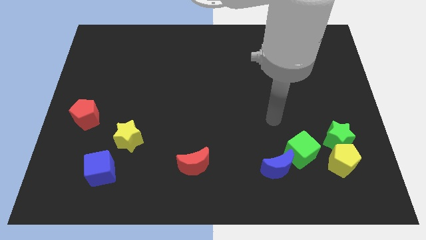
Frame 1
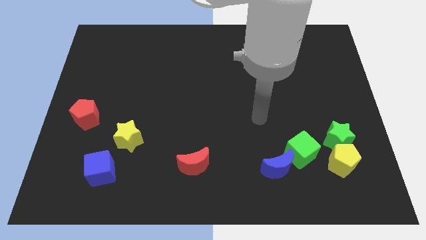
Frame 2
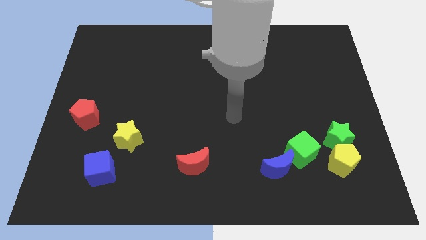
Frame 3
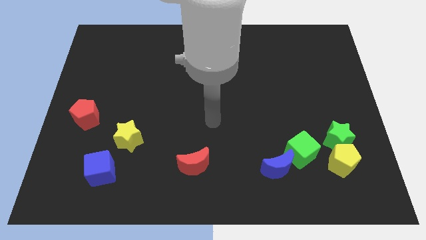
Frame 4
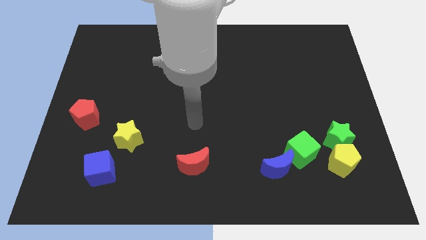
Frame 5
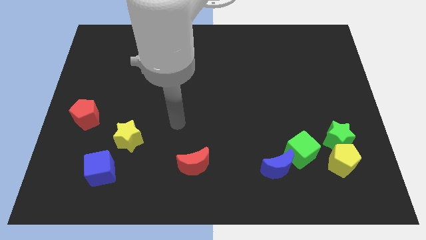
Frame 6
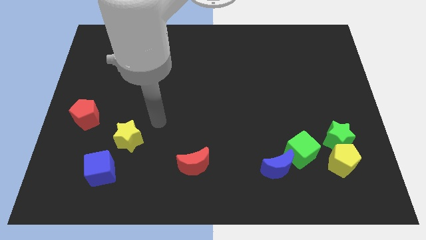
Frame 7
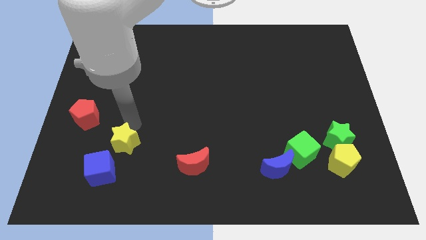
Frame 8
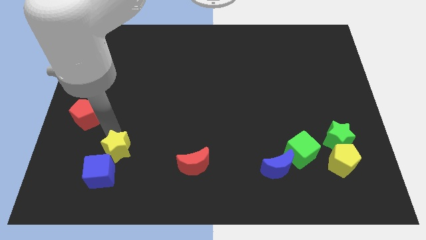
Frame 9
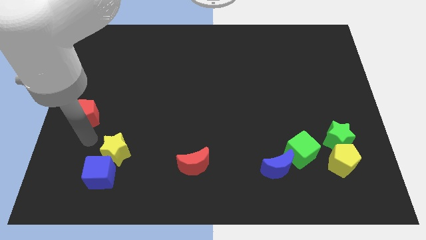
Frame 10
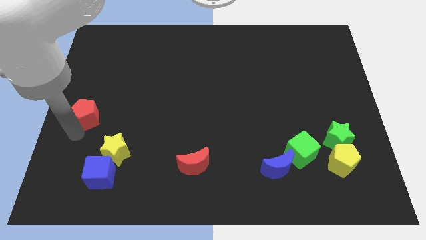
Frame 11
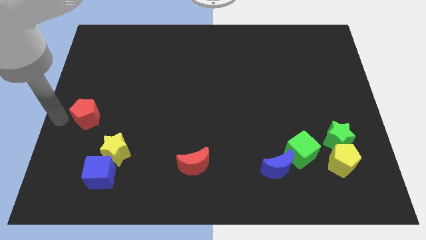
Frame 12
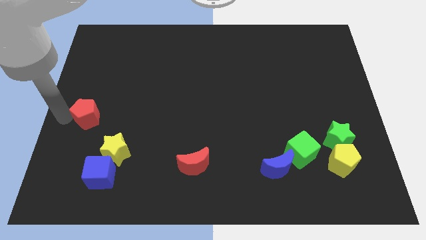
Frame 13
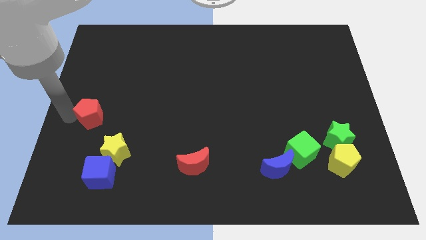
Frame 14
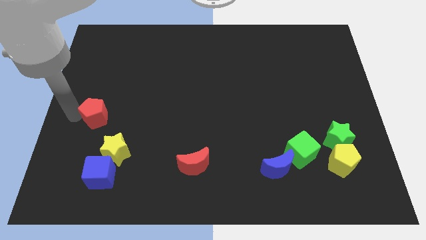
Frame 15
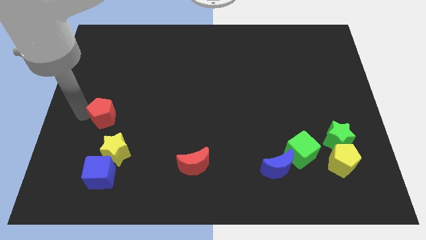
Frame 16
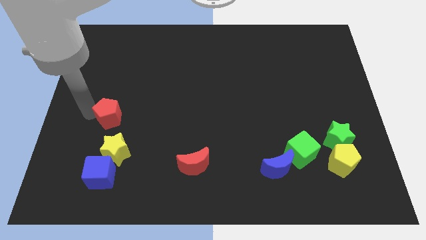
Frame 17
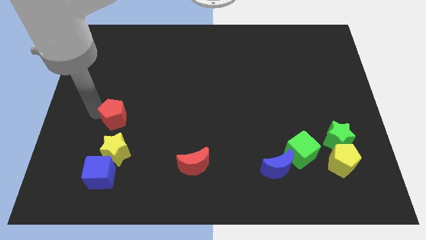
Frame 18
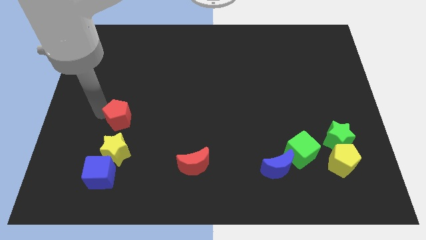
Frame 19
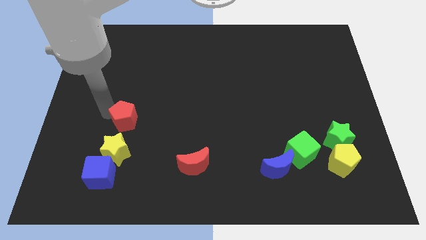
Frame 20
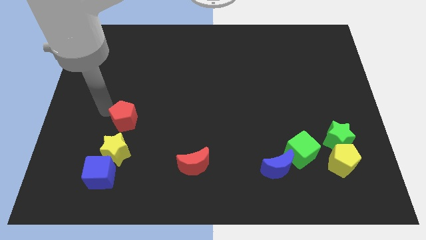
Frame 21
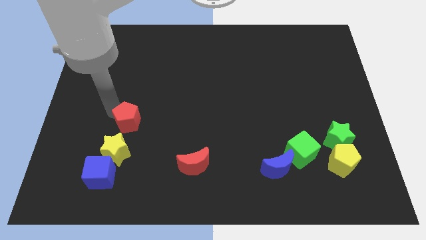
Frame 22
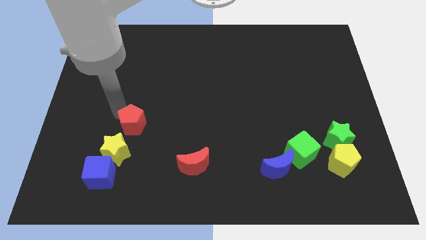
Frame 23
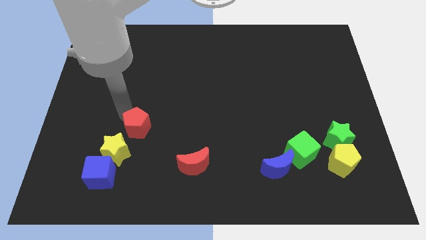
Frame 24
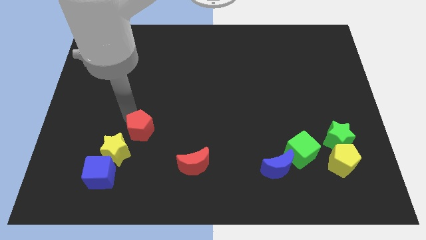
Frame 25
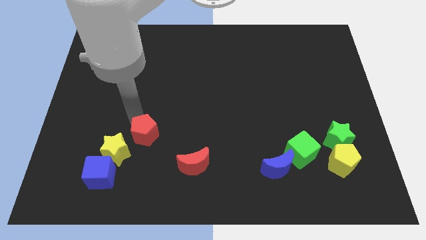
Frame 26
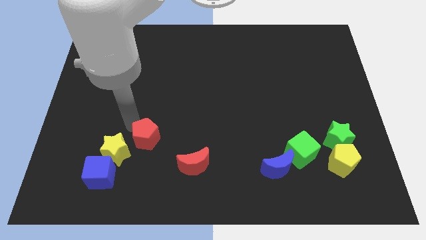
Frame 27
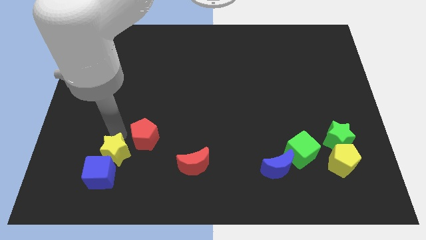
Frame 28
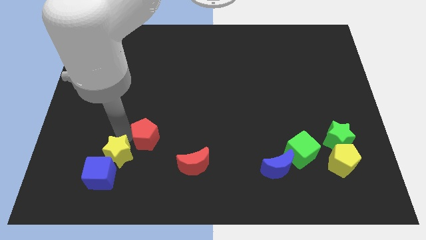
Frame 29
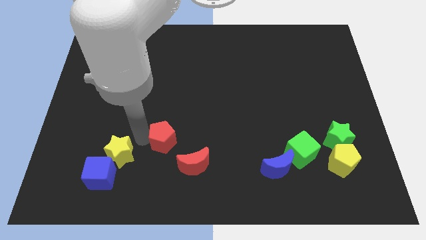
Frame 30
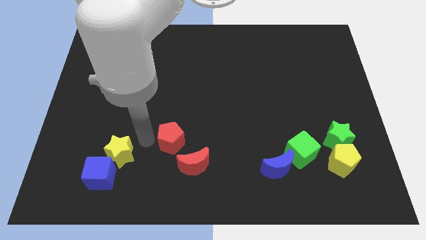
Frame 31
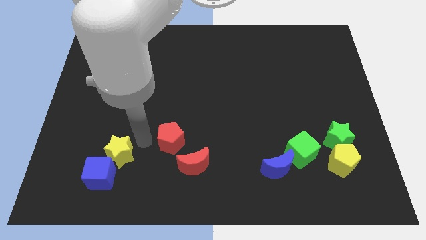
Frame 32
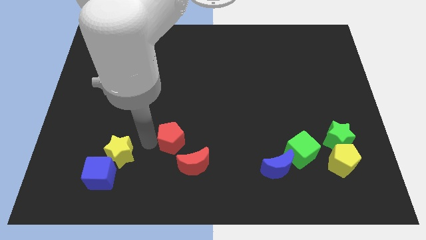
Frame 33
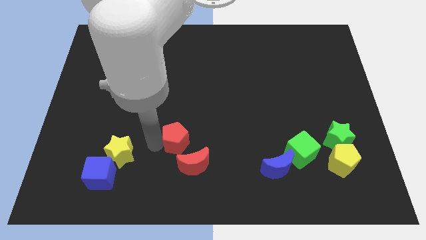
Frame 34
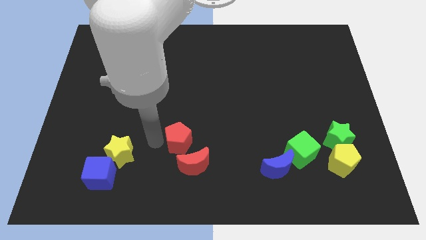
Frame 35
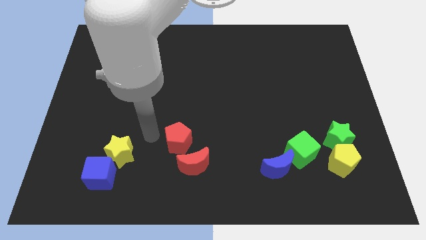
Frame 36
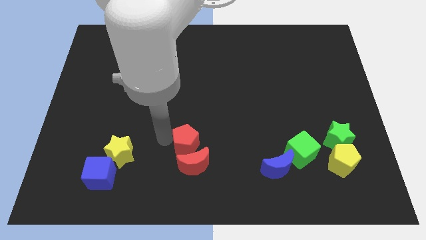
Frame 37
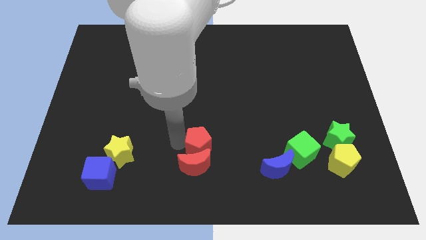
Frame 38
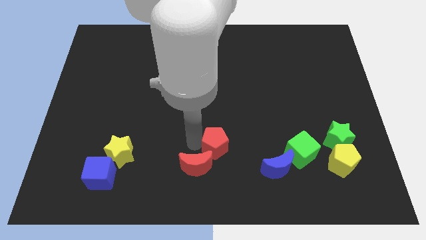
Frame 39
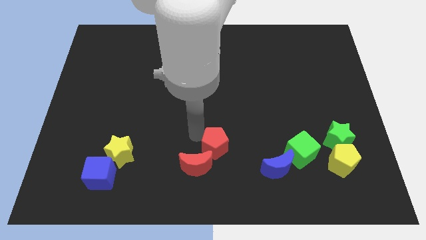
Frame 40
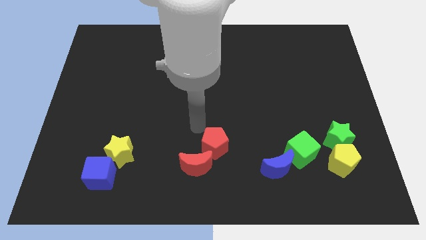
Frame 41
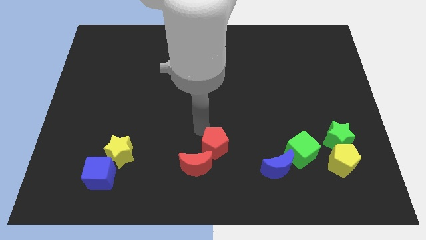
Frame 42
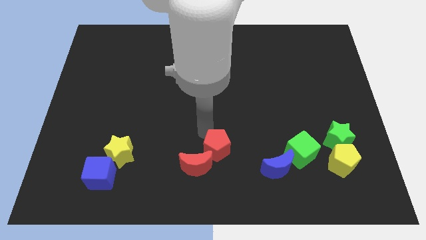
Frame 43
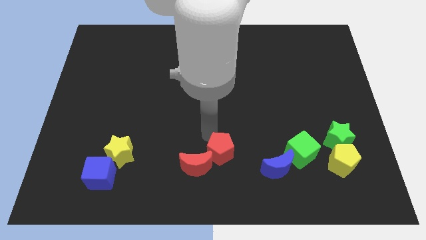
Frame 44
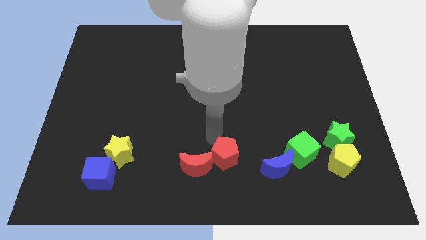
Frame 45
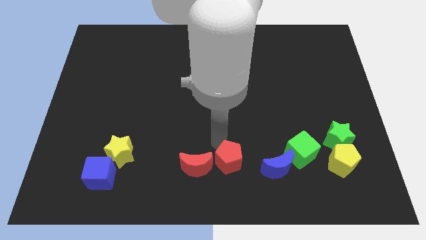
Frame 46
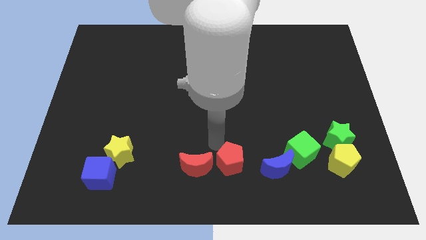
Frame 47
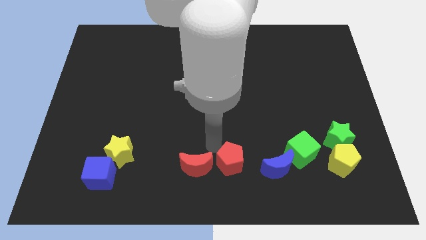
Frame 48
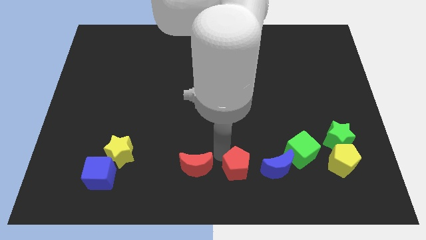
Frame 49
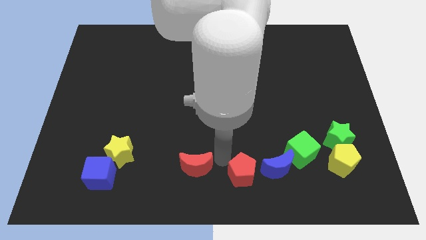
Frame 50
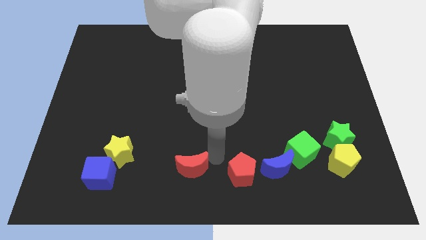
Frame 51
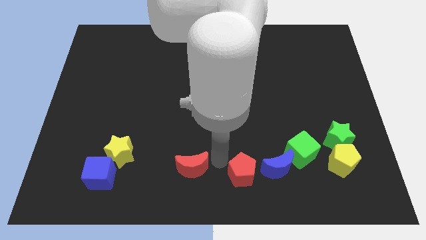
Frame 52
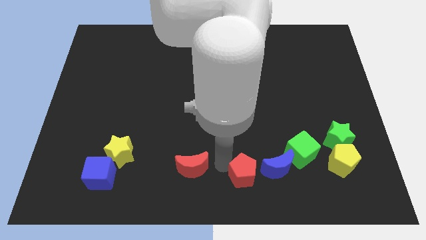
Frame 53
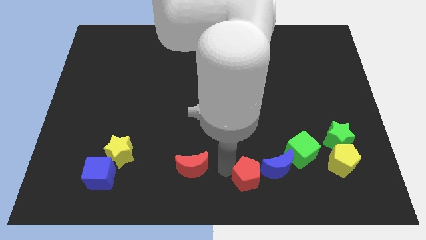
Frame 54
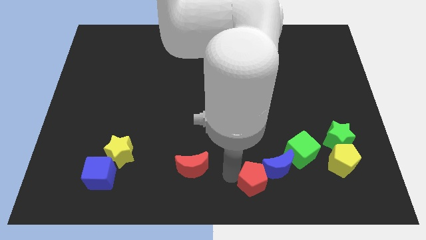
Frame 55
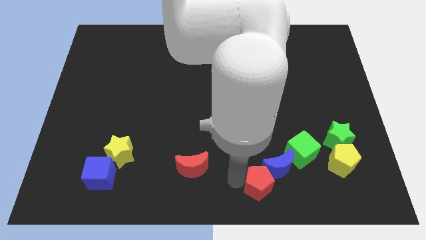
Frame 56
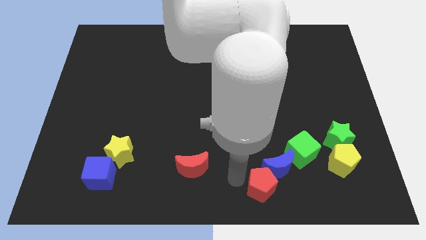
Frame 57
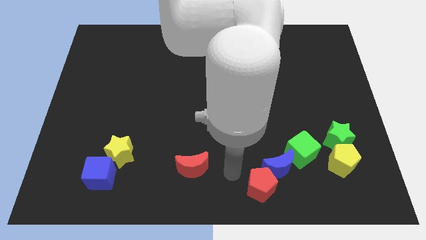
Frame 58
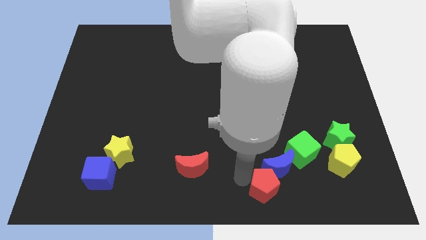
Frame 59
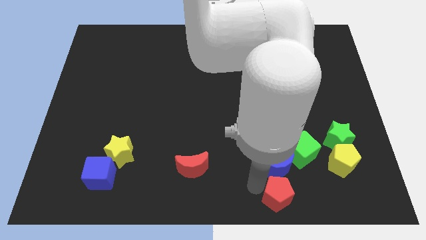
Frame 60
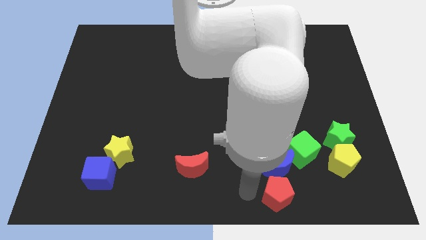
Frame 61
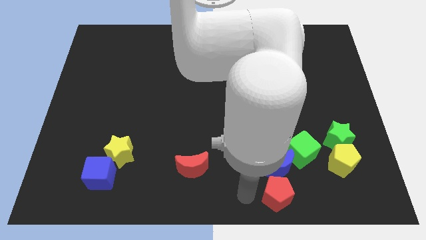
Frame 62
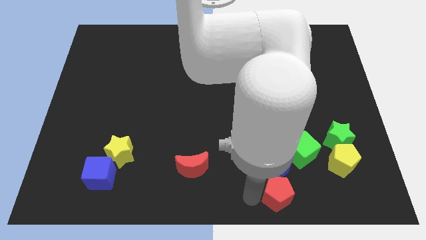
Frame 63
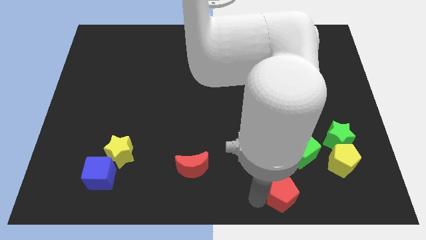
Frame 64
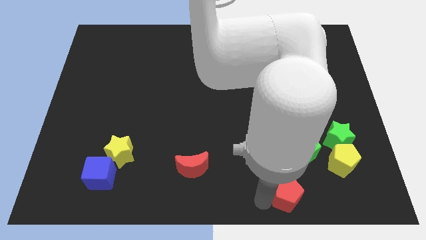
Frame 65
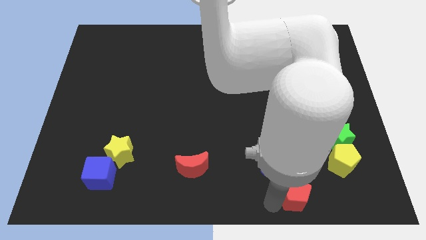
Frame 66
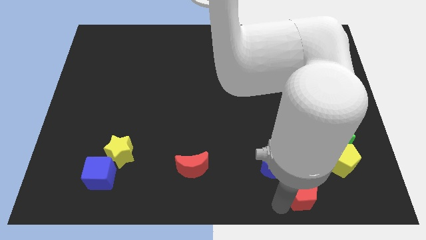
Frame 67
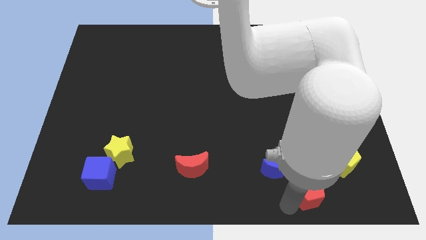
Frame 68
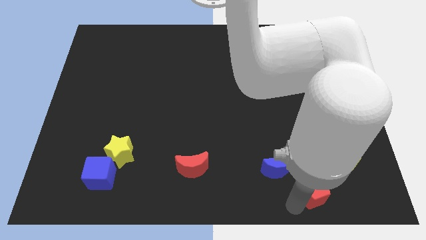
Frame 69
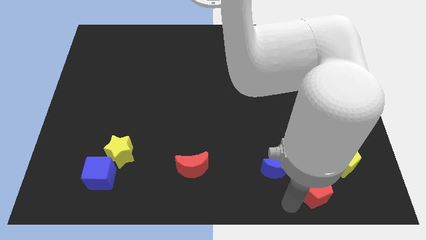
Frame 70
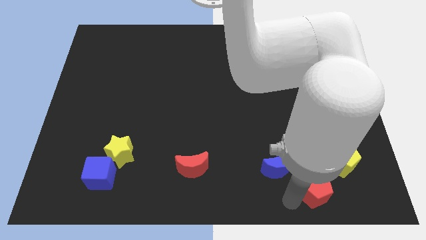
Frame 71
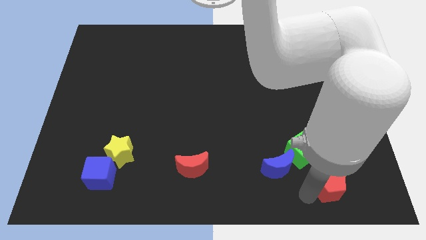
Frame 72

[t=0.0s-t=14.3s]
move the red pentagon to the bottom of the green star
